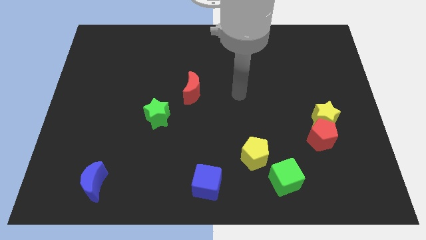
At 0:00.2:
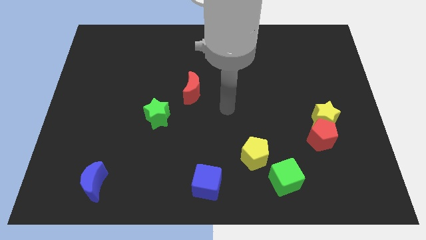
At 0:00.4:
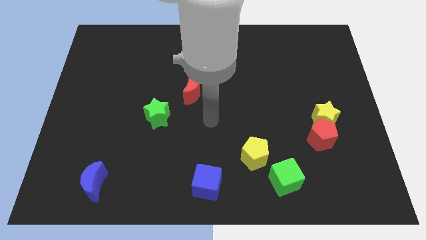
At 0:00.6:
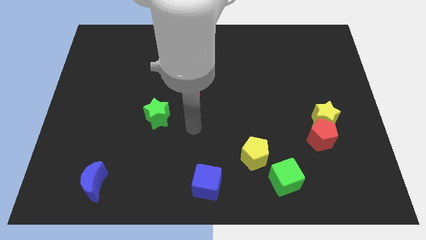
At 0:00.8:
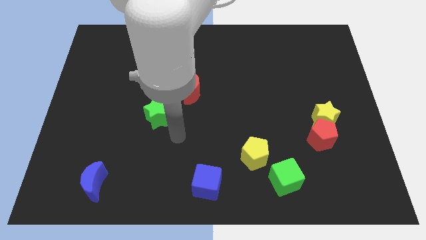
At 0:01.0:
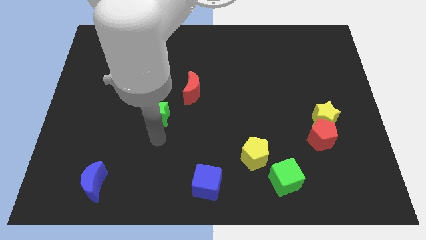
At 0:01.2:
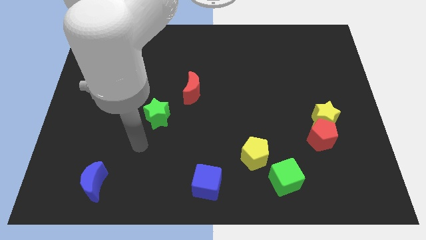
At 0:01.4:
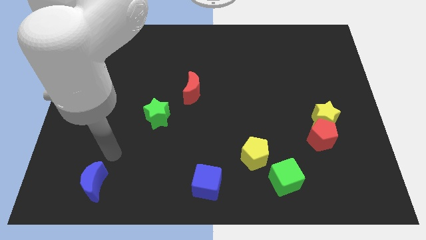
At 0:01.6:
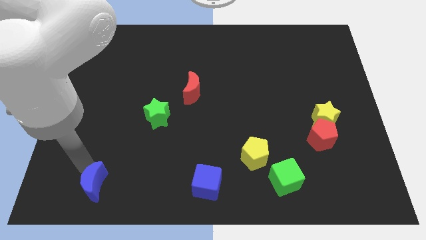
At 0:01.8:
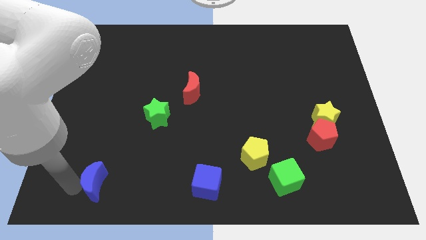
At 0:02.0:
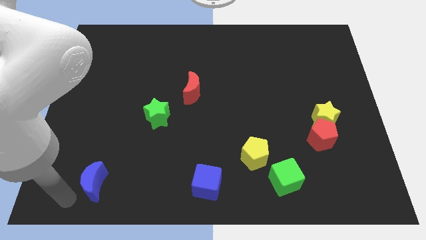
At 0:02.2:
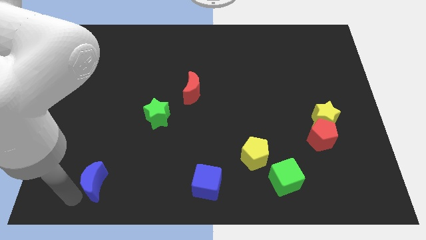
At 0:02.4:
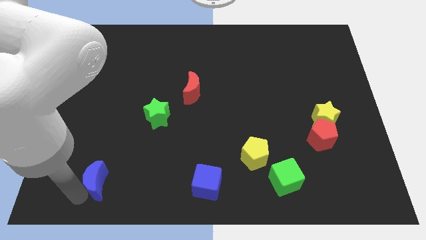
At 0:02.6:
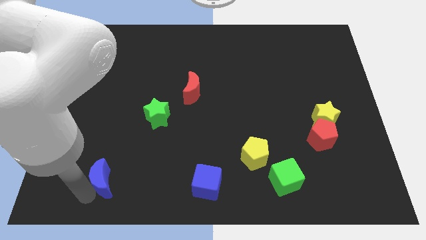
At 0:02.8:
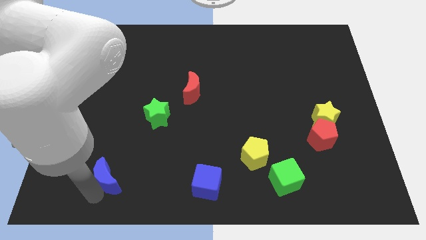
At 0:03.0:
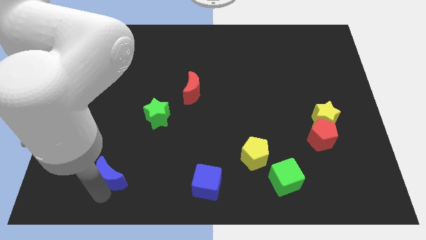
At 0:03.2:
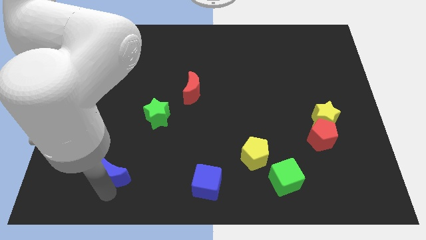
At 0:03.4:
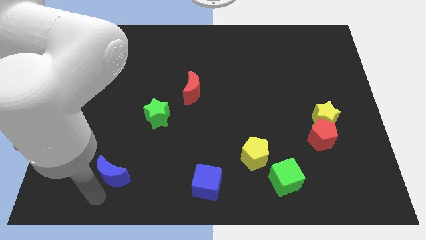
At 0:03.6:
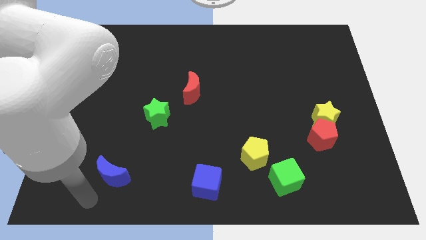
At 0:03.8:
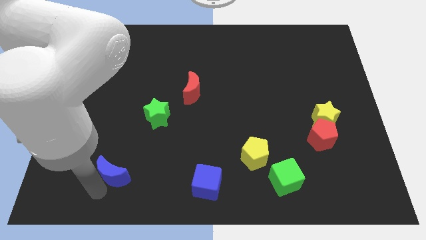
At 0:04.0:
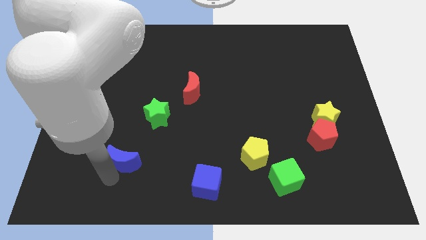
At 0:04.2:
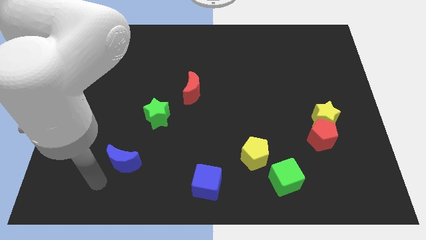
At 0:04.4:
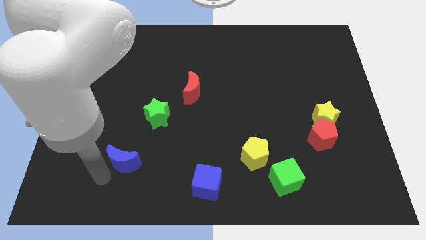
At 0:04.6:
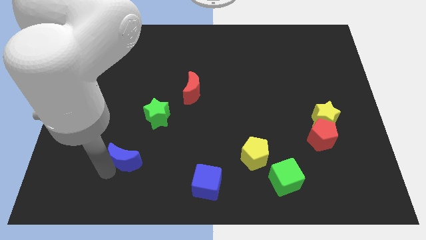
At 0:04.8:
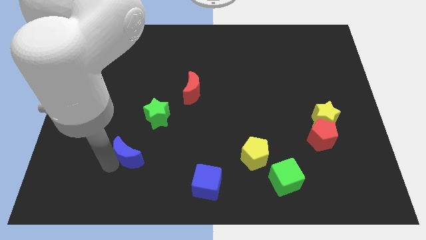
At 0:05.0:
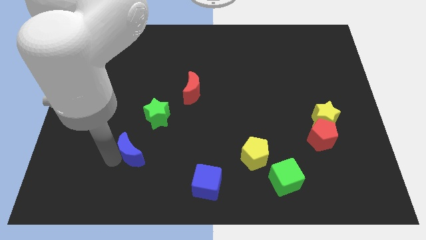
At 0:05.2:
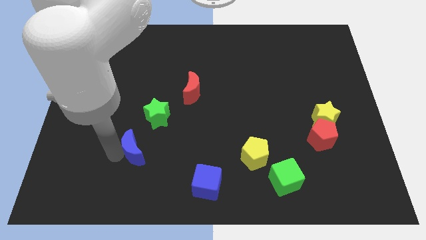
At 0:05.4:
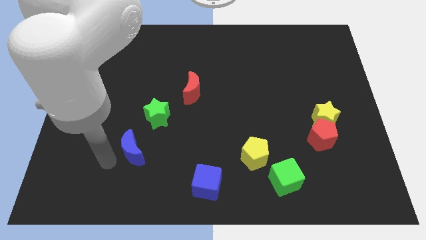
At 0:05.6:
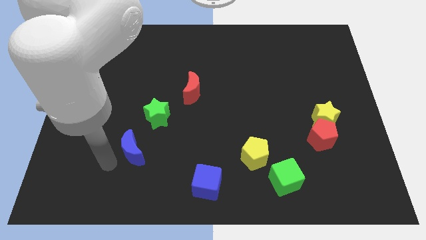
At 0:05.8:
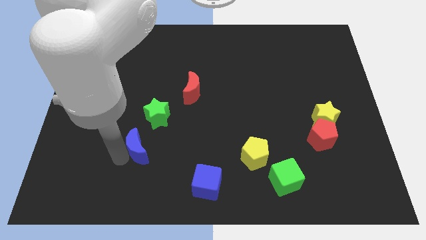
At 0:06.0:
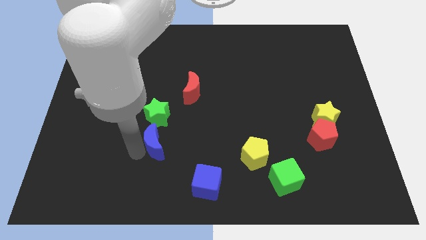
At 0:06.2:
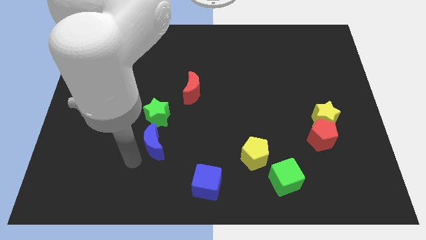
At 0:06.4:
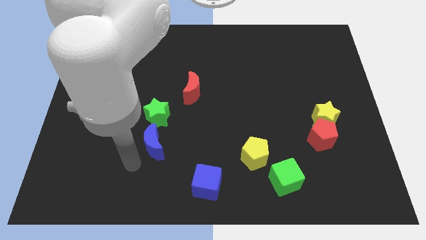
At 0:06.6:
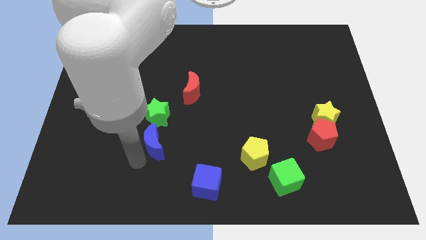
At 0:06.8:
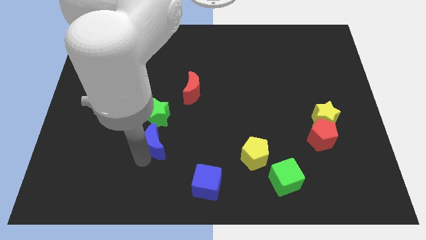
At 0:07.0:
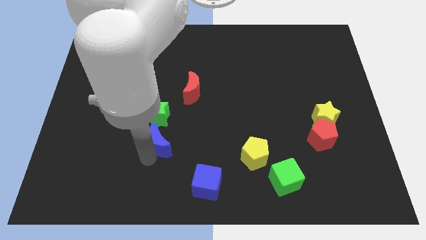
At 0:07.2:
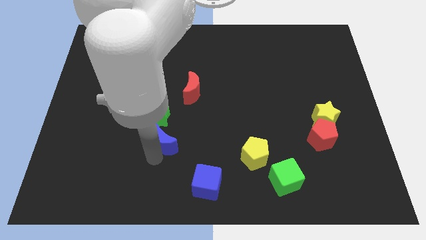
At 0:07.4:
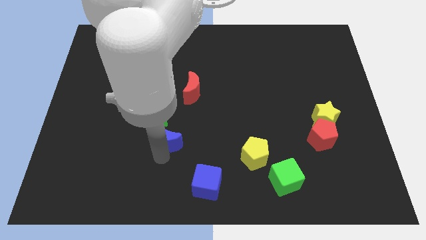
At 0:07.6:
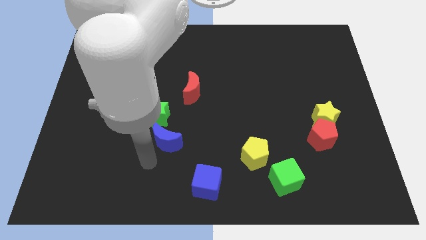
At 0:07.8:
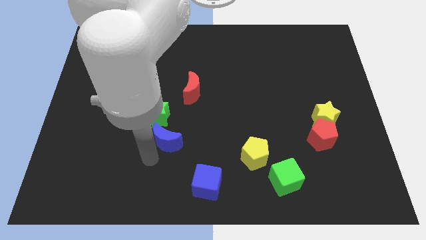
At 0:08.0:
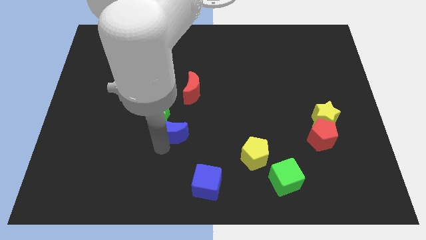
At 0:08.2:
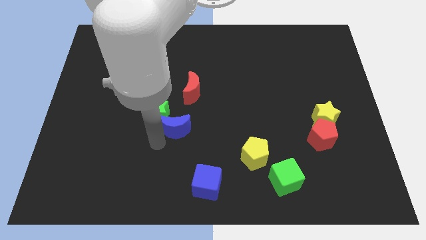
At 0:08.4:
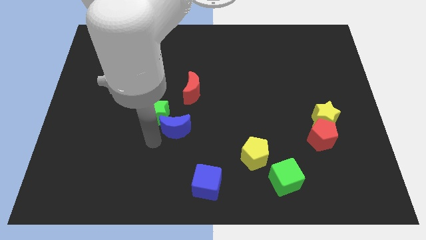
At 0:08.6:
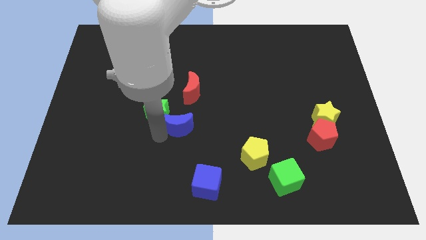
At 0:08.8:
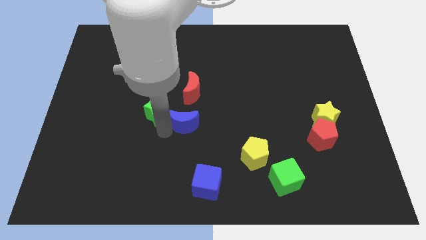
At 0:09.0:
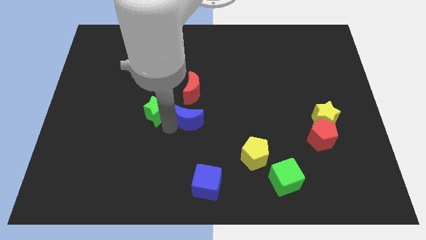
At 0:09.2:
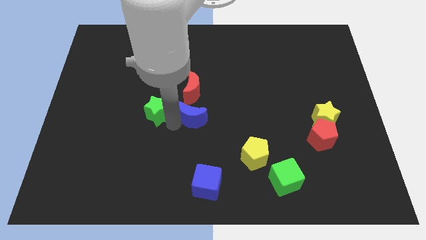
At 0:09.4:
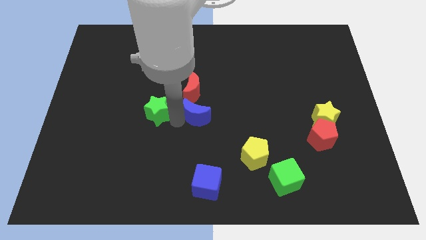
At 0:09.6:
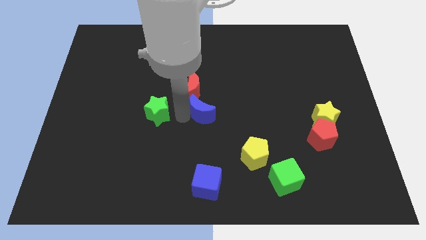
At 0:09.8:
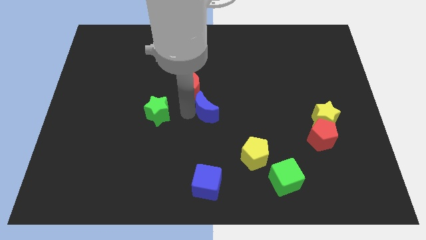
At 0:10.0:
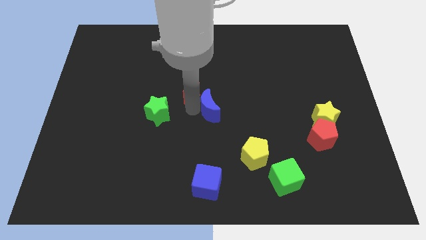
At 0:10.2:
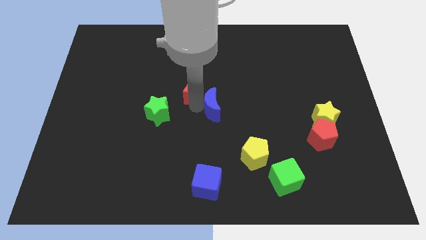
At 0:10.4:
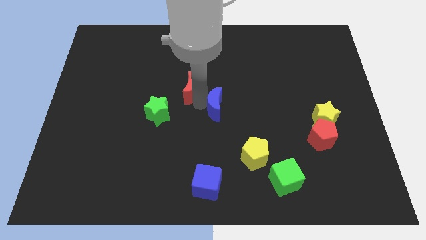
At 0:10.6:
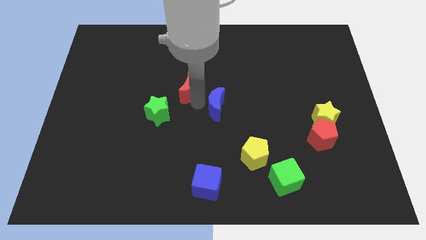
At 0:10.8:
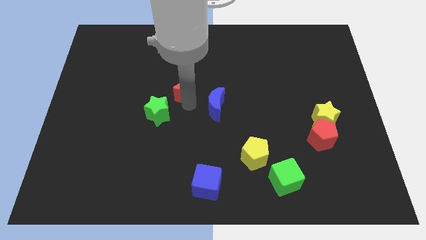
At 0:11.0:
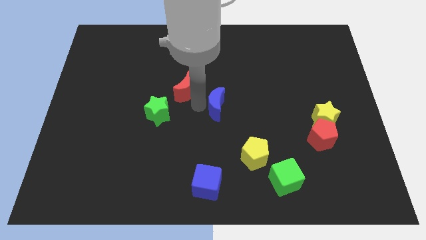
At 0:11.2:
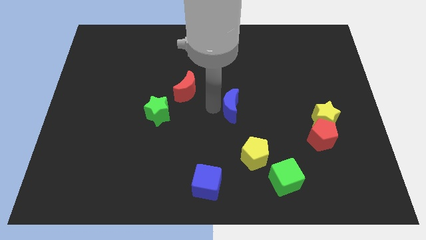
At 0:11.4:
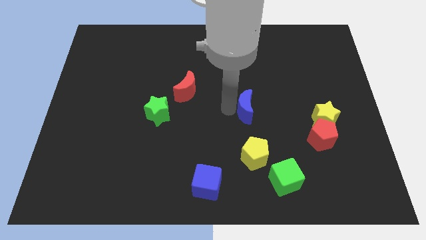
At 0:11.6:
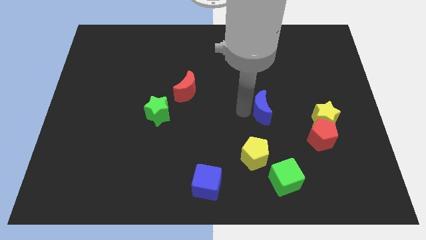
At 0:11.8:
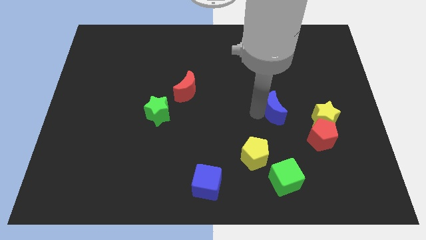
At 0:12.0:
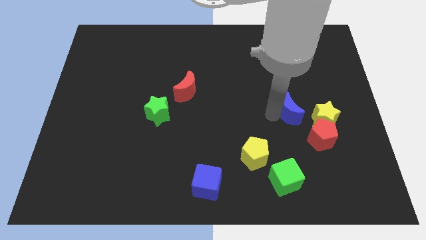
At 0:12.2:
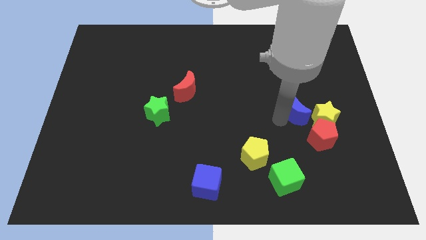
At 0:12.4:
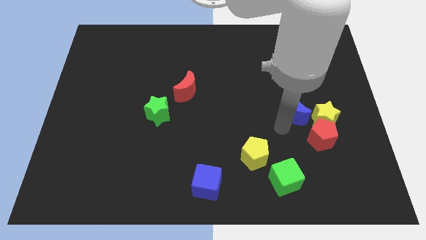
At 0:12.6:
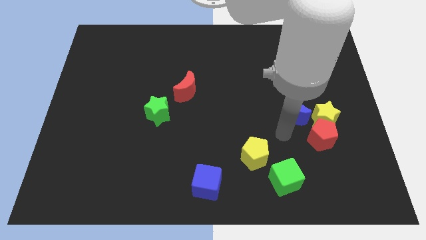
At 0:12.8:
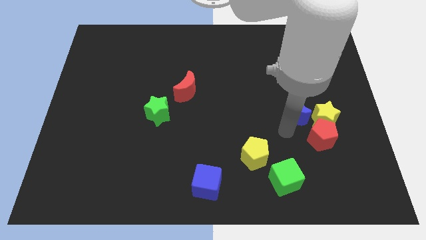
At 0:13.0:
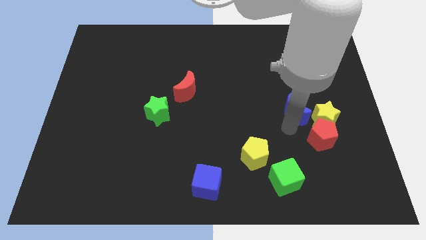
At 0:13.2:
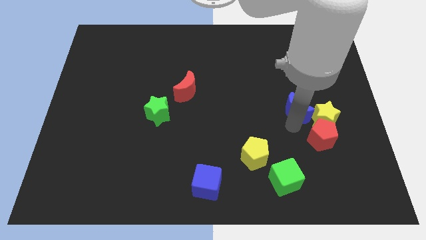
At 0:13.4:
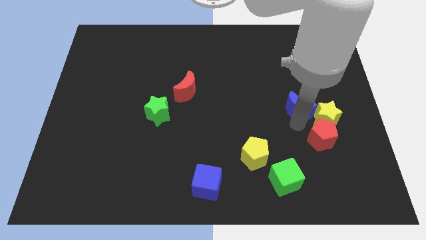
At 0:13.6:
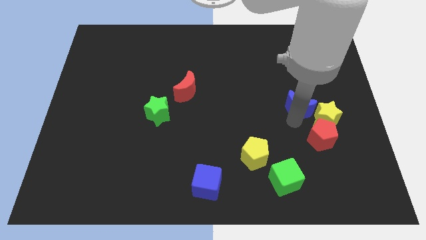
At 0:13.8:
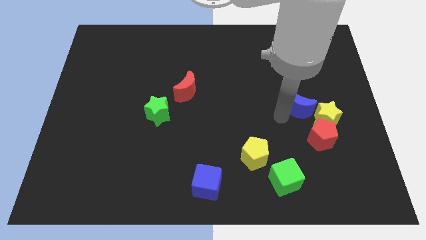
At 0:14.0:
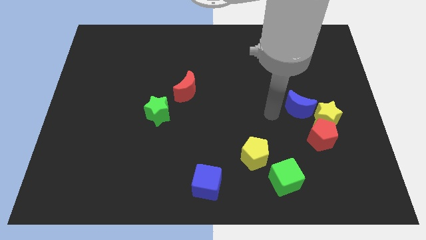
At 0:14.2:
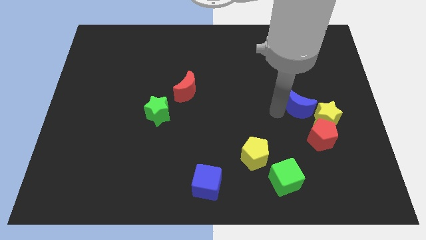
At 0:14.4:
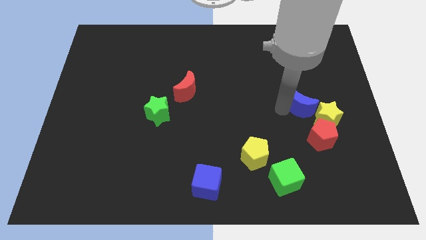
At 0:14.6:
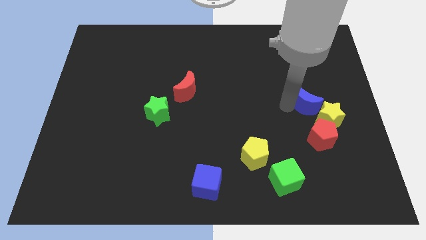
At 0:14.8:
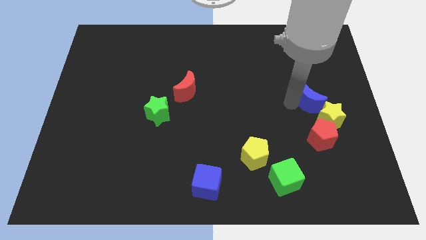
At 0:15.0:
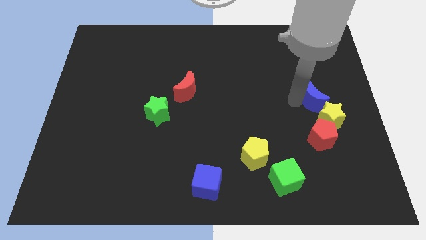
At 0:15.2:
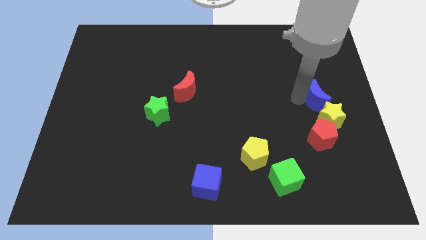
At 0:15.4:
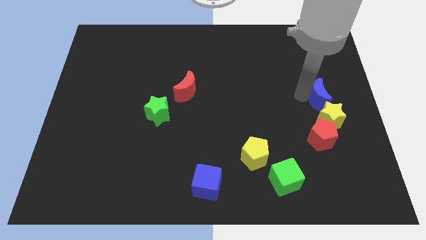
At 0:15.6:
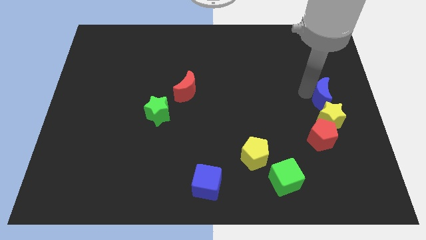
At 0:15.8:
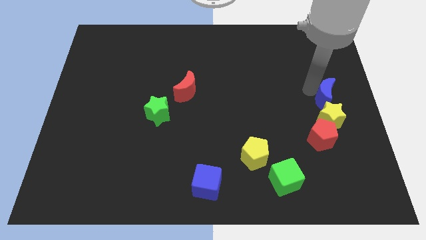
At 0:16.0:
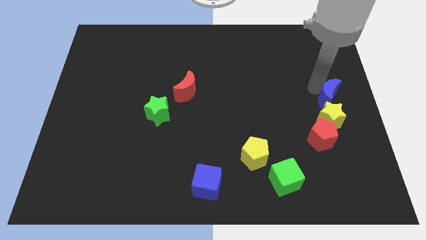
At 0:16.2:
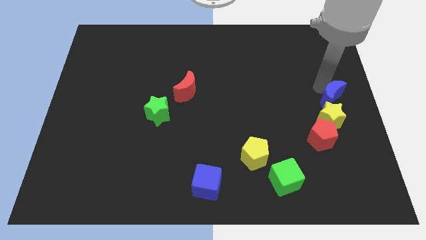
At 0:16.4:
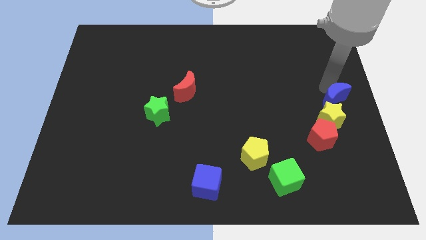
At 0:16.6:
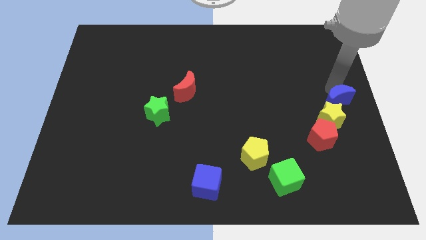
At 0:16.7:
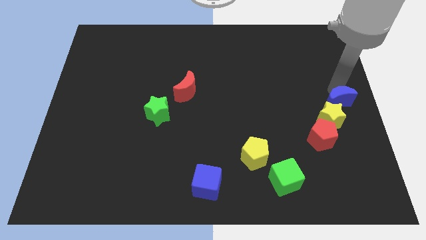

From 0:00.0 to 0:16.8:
move the blue moon to the top right of the red pentagon
